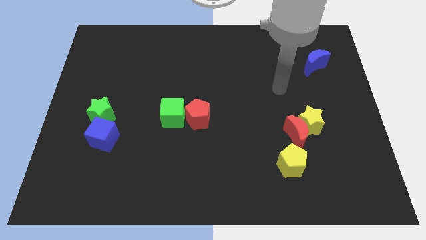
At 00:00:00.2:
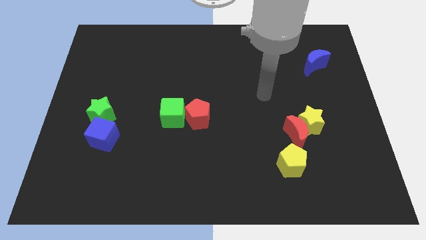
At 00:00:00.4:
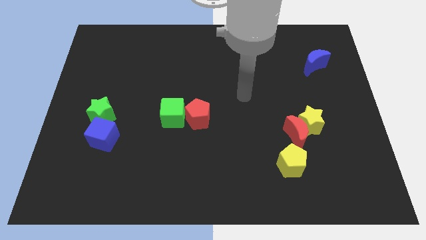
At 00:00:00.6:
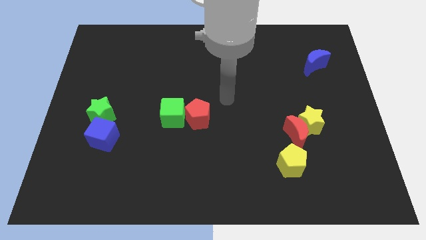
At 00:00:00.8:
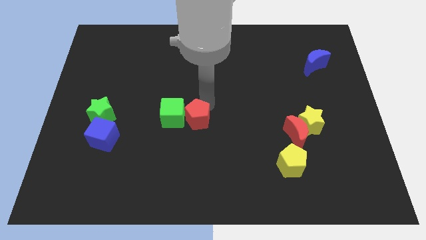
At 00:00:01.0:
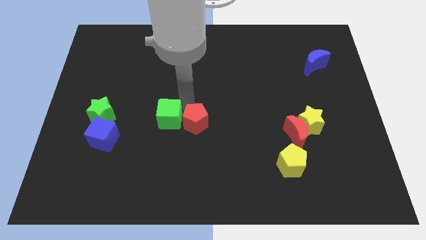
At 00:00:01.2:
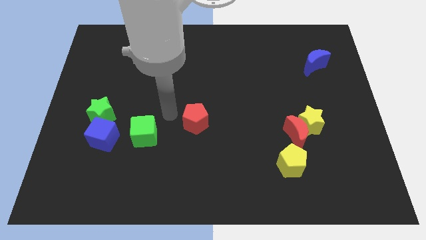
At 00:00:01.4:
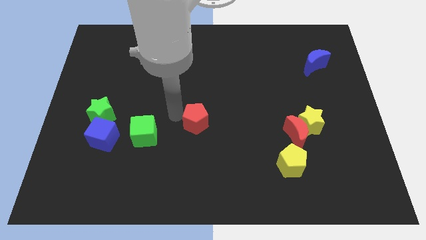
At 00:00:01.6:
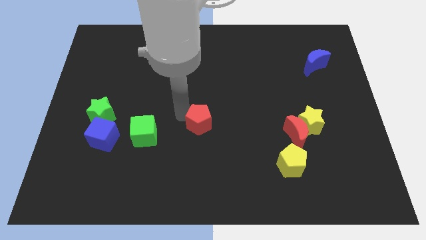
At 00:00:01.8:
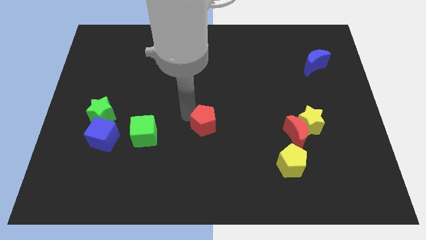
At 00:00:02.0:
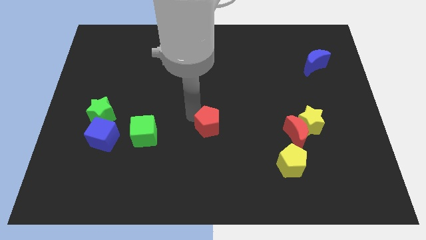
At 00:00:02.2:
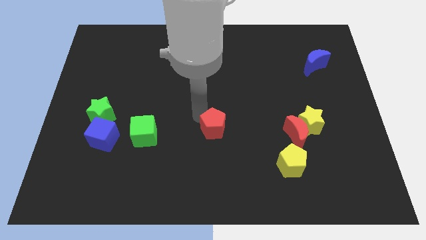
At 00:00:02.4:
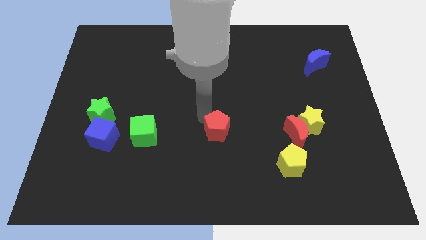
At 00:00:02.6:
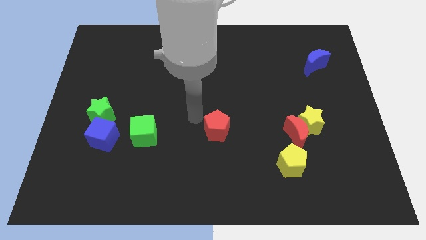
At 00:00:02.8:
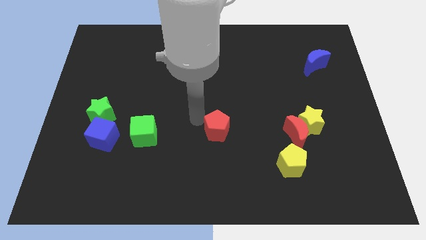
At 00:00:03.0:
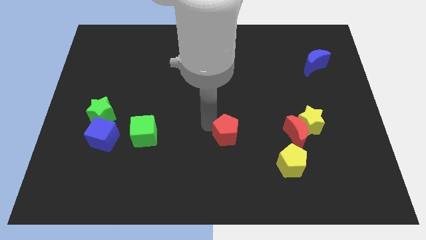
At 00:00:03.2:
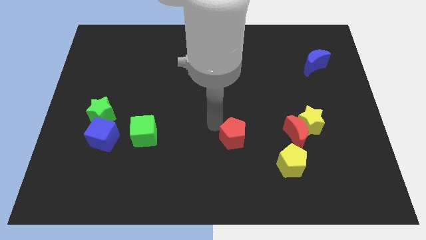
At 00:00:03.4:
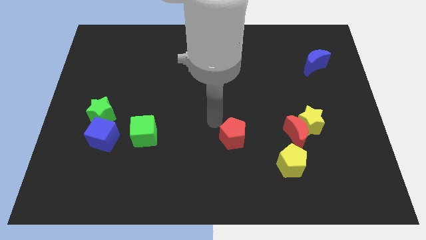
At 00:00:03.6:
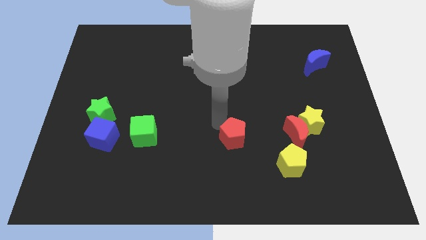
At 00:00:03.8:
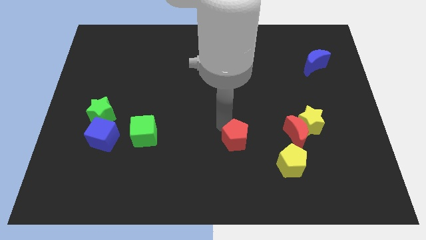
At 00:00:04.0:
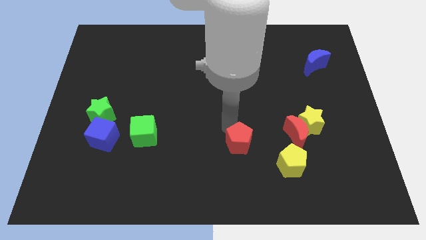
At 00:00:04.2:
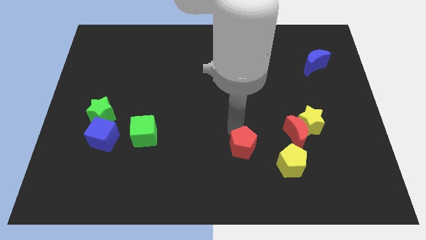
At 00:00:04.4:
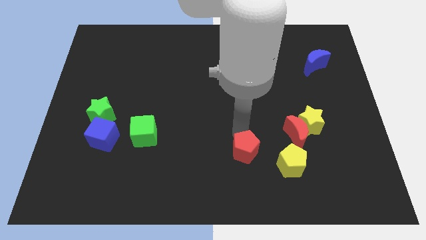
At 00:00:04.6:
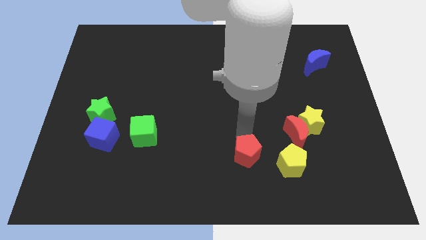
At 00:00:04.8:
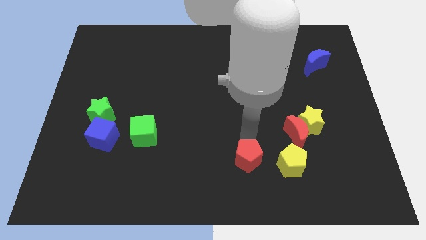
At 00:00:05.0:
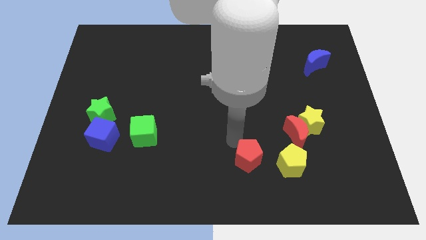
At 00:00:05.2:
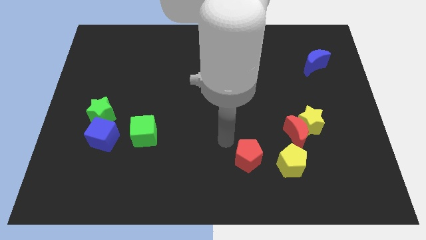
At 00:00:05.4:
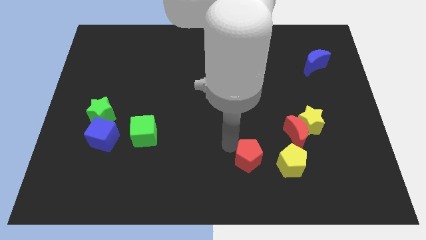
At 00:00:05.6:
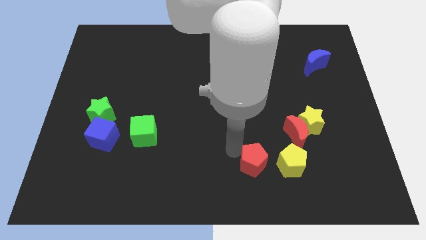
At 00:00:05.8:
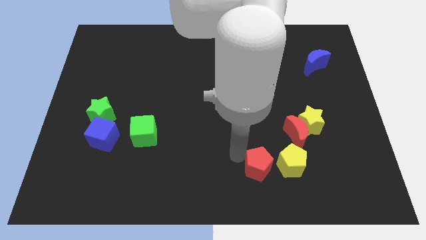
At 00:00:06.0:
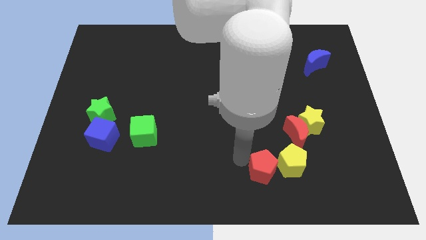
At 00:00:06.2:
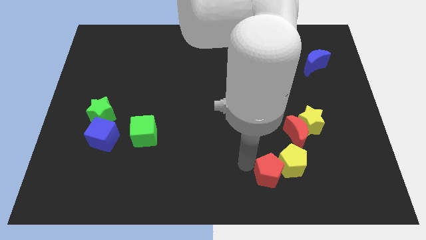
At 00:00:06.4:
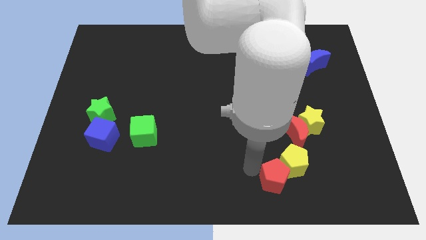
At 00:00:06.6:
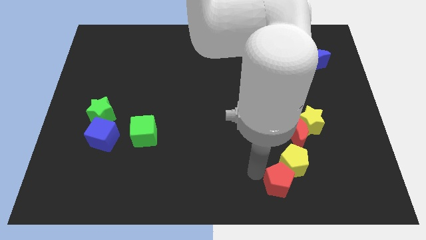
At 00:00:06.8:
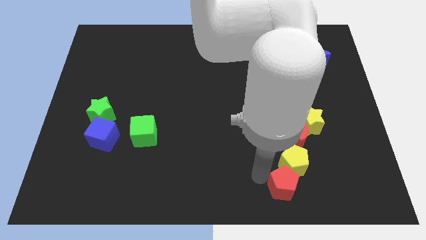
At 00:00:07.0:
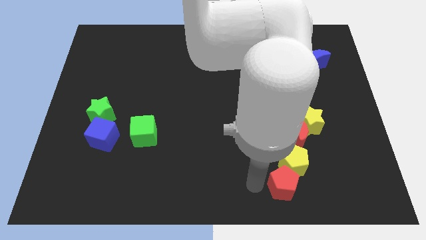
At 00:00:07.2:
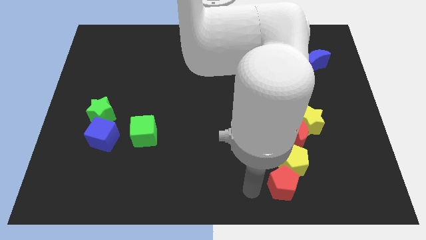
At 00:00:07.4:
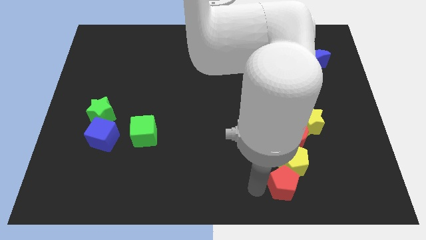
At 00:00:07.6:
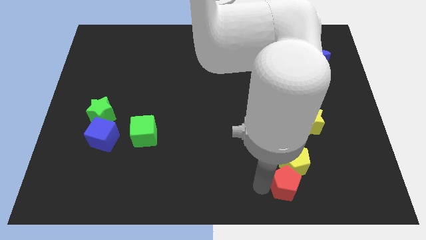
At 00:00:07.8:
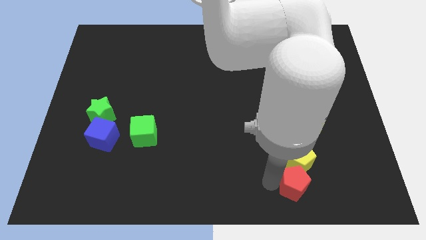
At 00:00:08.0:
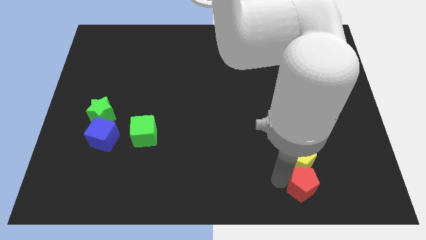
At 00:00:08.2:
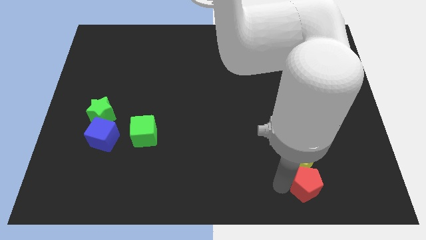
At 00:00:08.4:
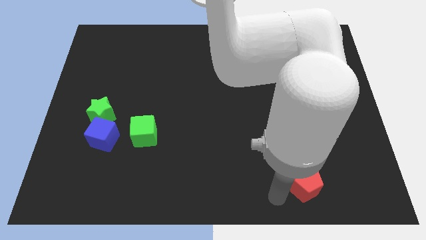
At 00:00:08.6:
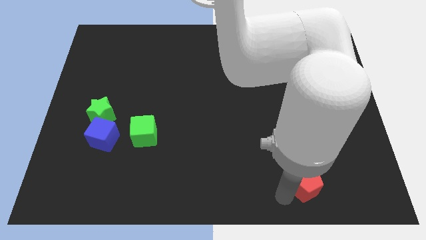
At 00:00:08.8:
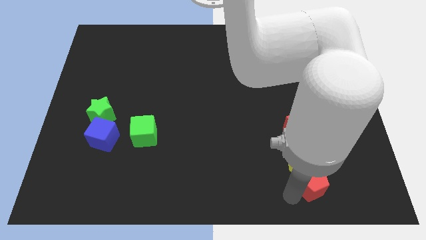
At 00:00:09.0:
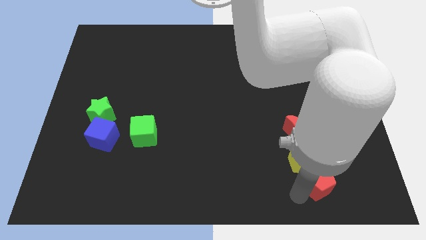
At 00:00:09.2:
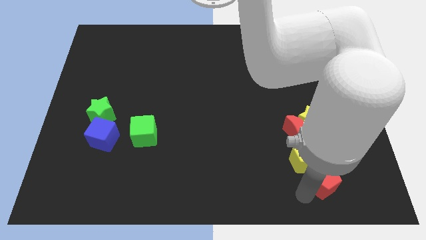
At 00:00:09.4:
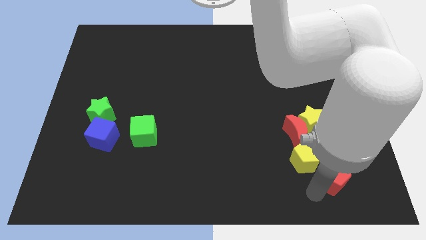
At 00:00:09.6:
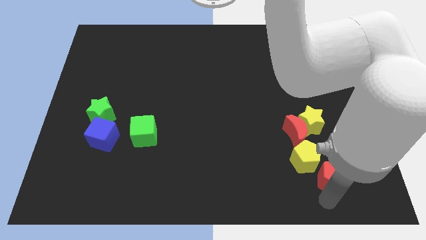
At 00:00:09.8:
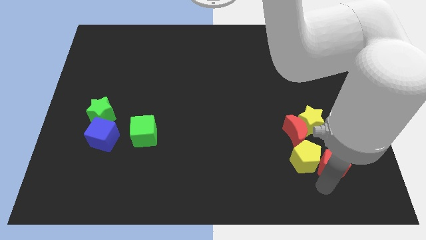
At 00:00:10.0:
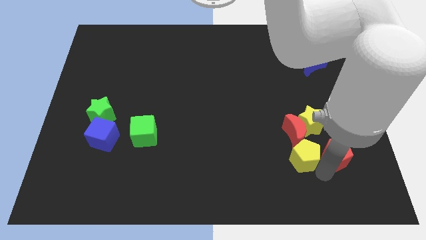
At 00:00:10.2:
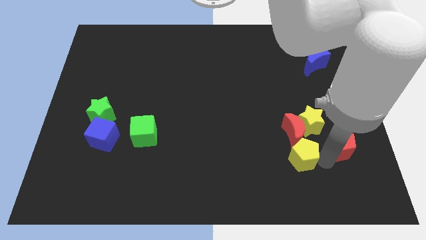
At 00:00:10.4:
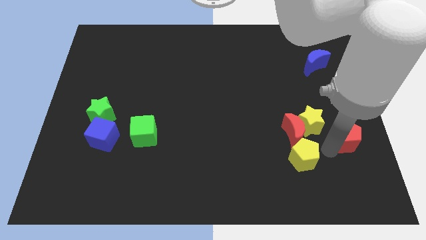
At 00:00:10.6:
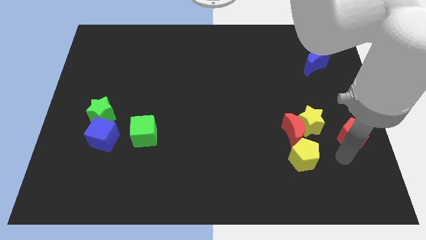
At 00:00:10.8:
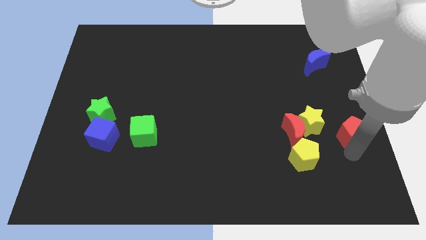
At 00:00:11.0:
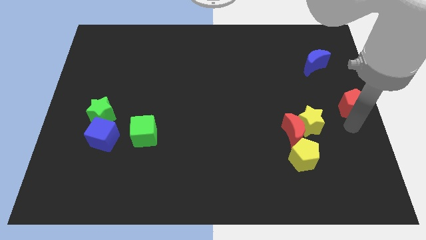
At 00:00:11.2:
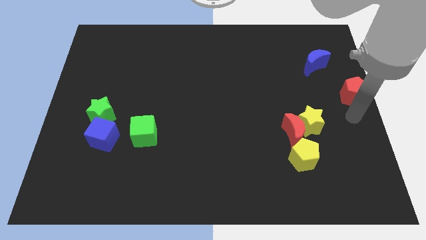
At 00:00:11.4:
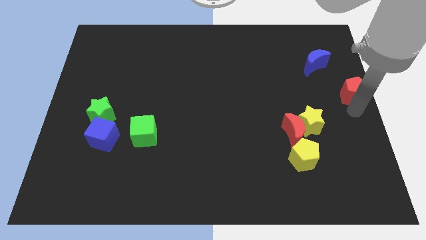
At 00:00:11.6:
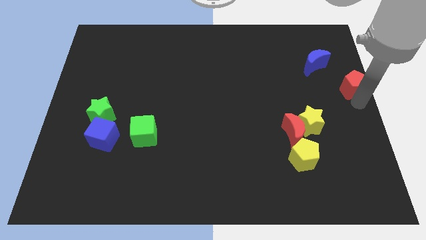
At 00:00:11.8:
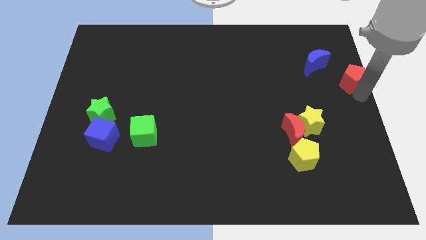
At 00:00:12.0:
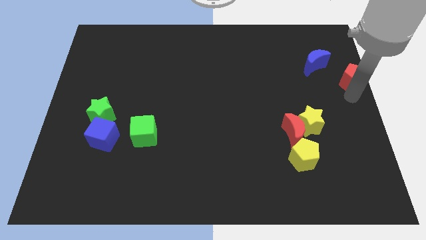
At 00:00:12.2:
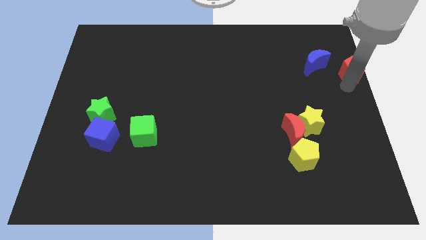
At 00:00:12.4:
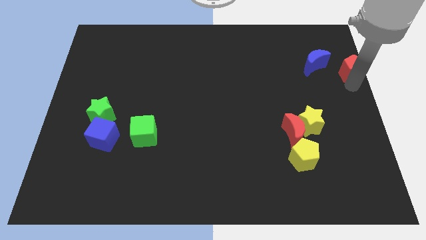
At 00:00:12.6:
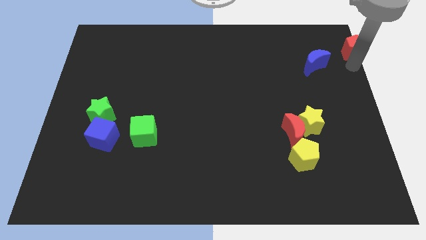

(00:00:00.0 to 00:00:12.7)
move the red pentagon to the top right corner
